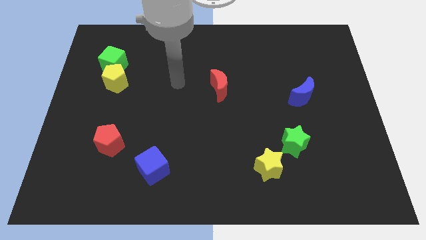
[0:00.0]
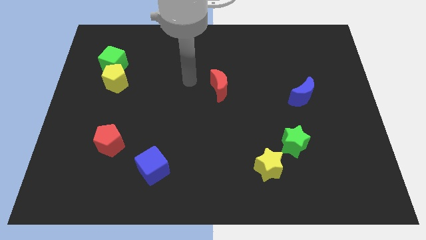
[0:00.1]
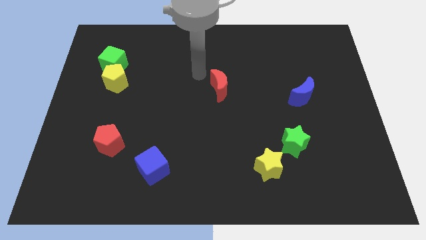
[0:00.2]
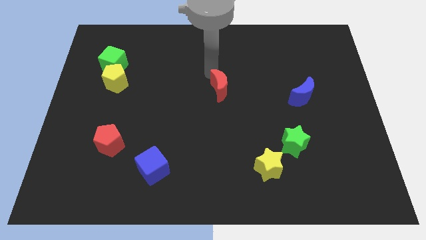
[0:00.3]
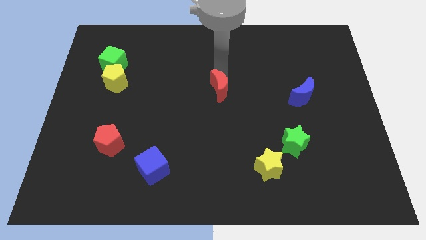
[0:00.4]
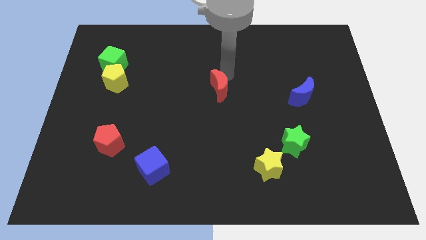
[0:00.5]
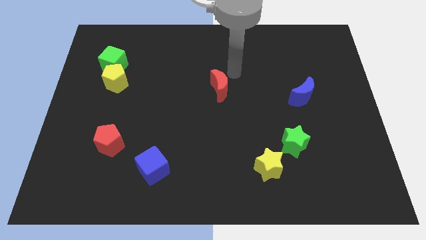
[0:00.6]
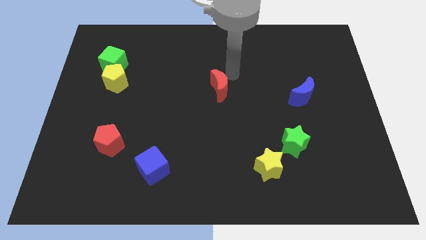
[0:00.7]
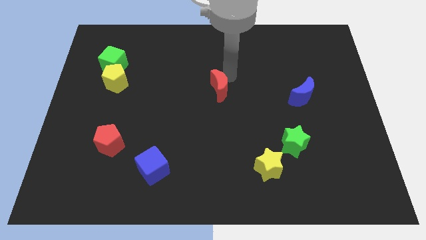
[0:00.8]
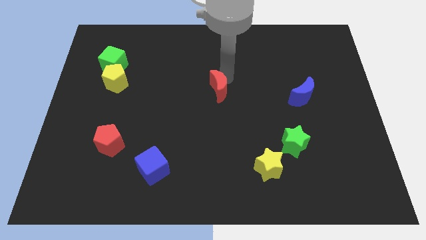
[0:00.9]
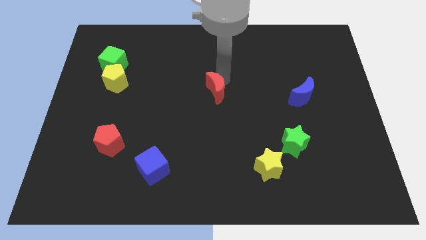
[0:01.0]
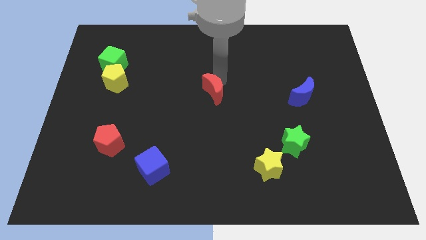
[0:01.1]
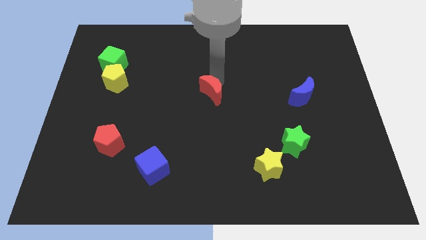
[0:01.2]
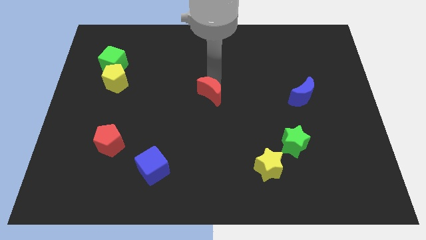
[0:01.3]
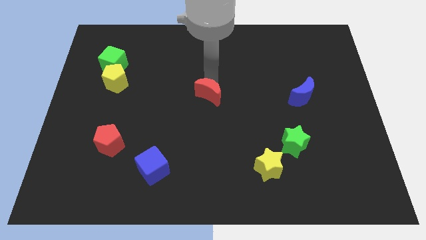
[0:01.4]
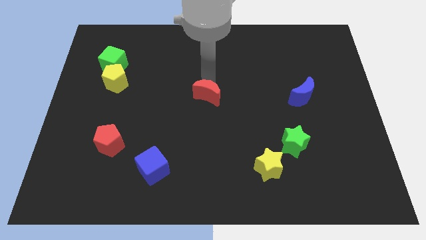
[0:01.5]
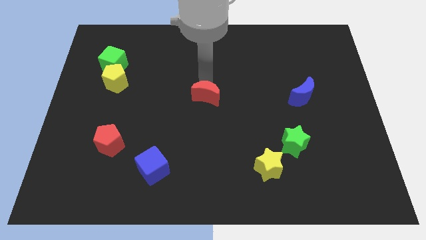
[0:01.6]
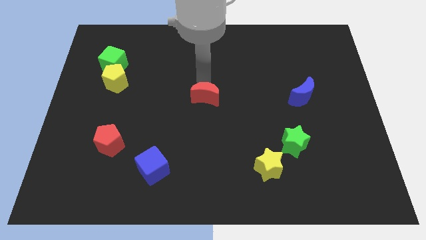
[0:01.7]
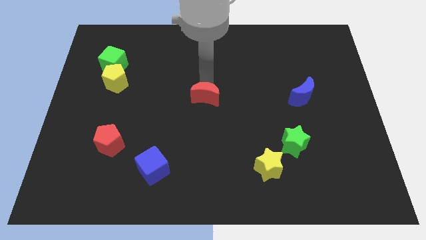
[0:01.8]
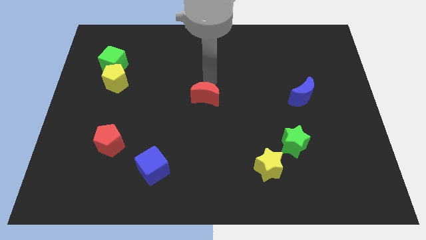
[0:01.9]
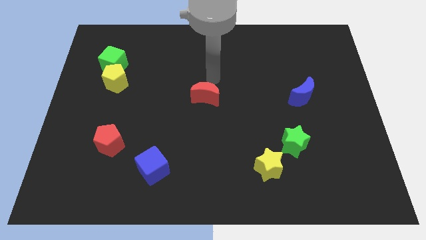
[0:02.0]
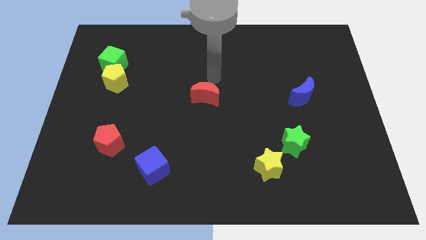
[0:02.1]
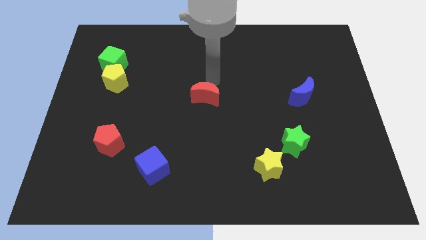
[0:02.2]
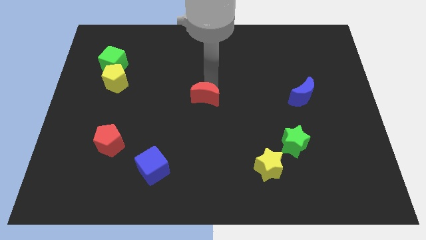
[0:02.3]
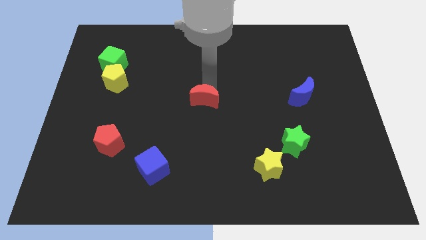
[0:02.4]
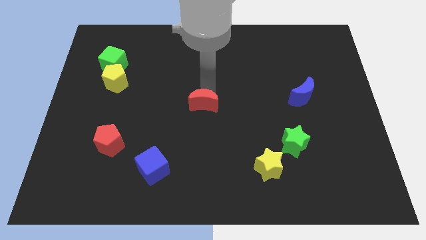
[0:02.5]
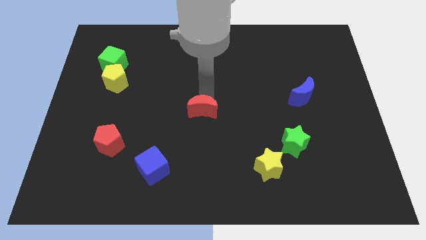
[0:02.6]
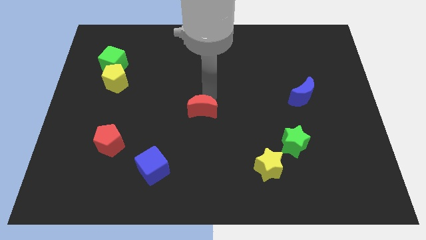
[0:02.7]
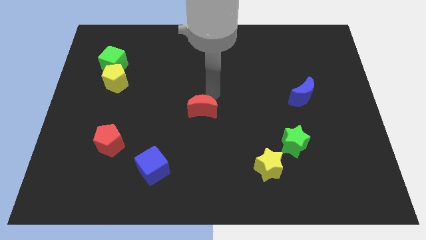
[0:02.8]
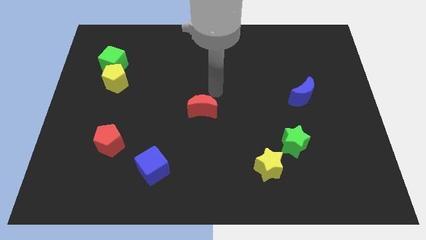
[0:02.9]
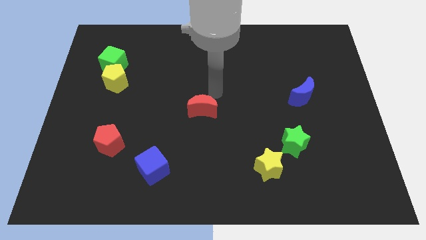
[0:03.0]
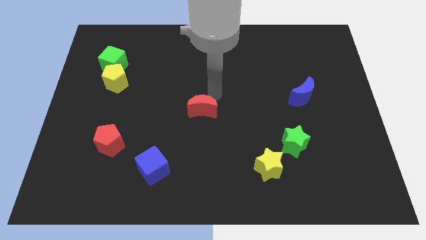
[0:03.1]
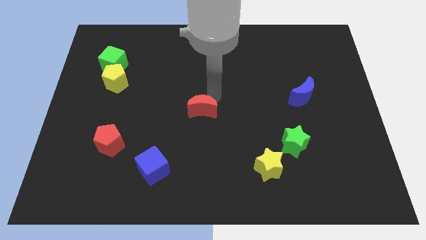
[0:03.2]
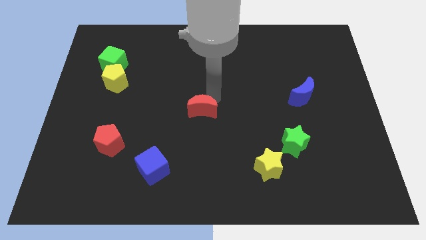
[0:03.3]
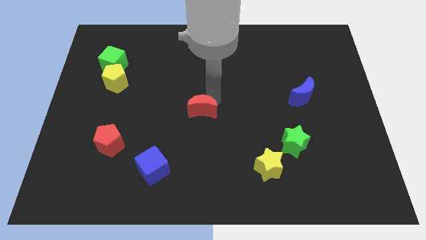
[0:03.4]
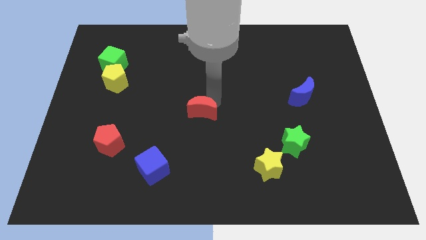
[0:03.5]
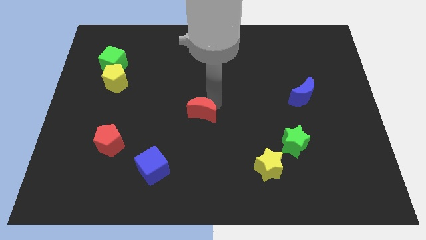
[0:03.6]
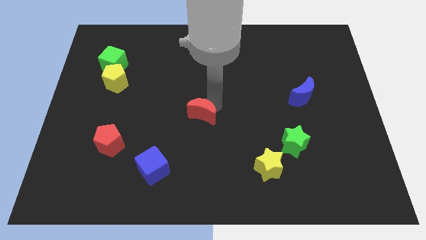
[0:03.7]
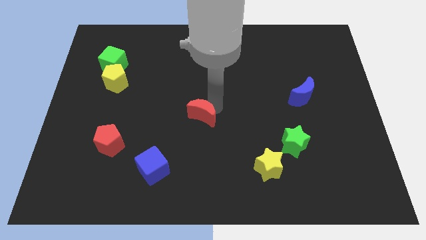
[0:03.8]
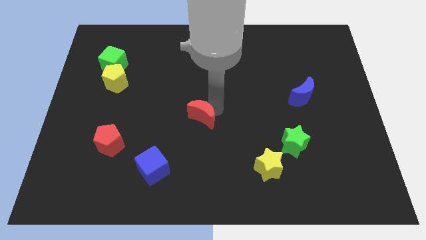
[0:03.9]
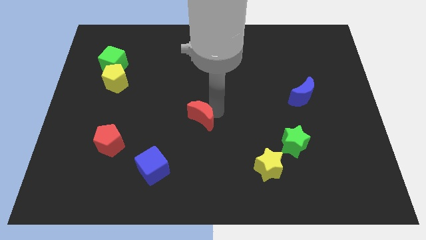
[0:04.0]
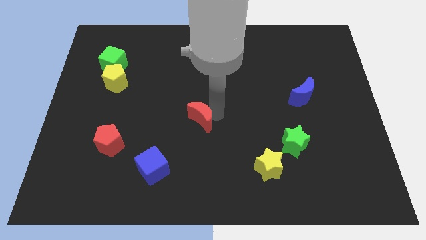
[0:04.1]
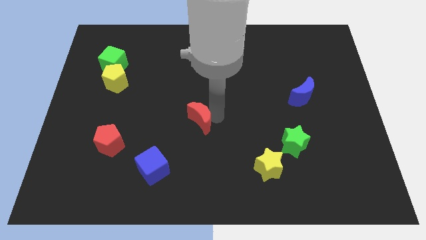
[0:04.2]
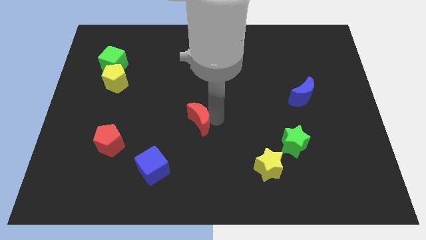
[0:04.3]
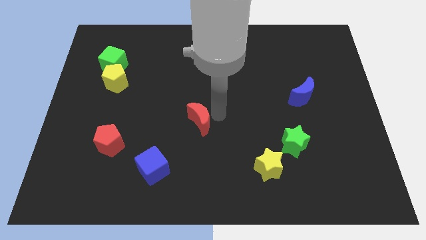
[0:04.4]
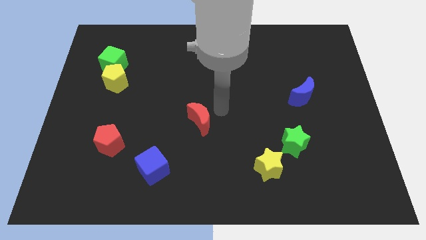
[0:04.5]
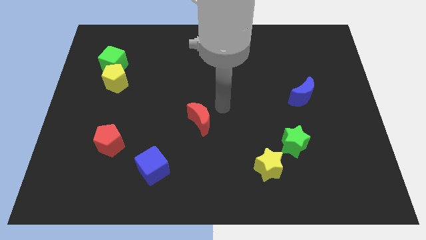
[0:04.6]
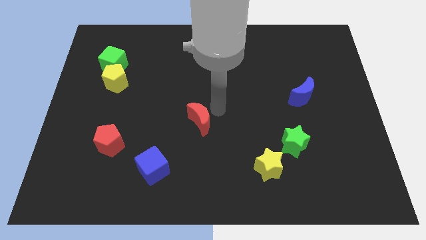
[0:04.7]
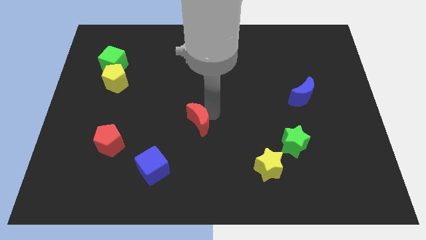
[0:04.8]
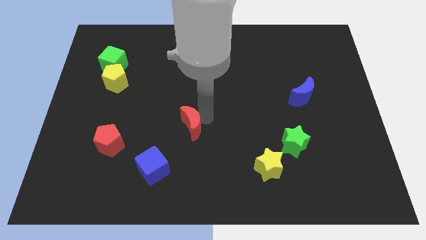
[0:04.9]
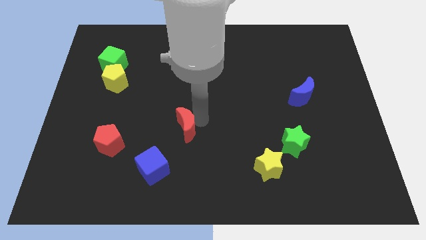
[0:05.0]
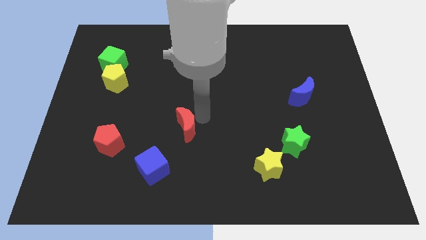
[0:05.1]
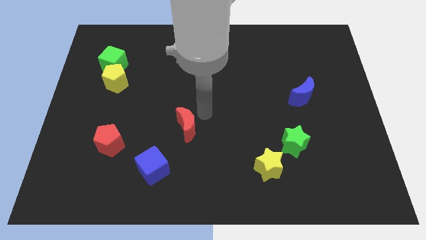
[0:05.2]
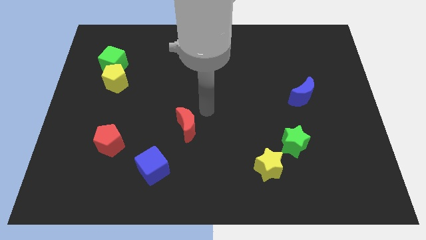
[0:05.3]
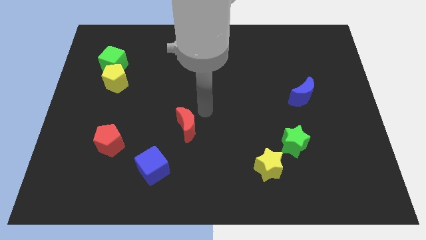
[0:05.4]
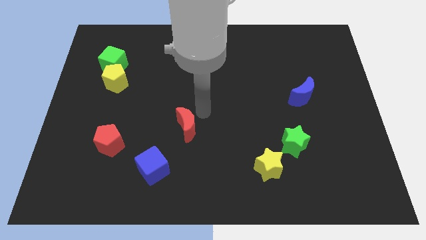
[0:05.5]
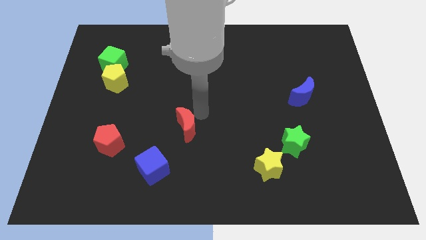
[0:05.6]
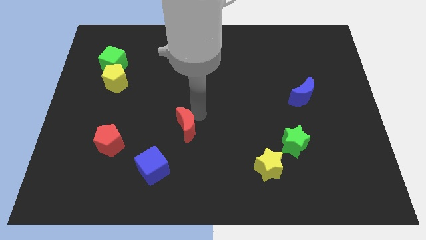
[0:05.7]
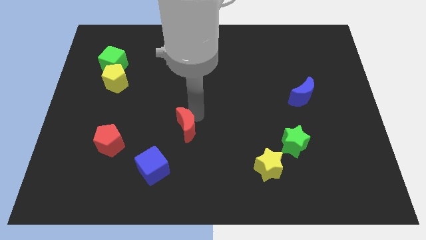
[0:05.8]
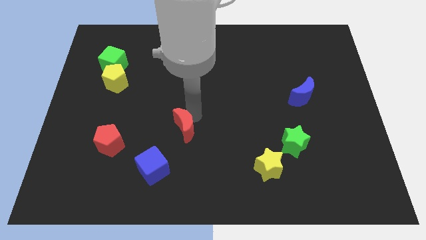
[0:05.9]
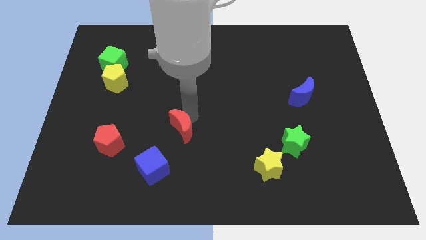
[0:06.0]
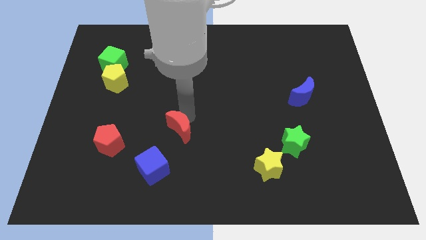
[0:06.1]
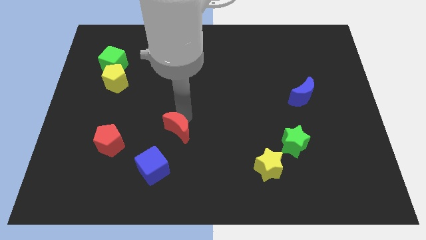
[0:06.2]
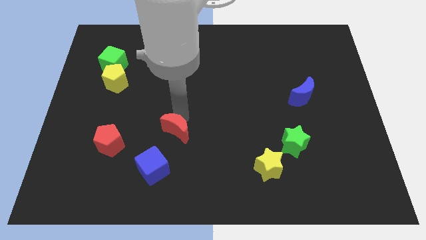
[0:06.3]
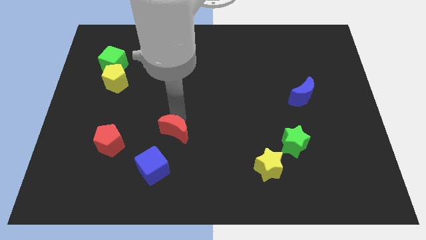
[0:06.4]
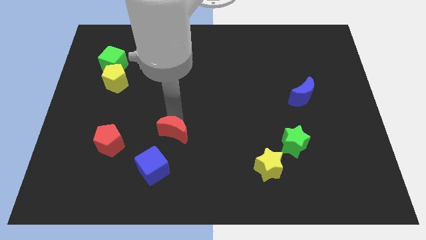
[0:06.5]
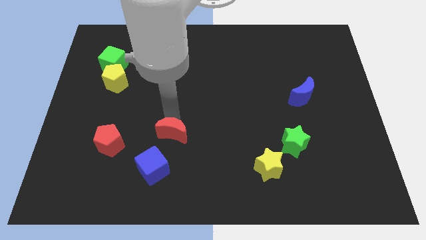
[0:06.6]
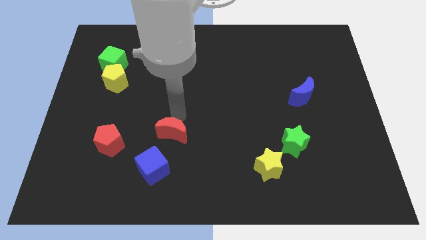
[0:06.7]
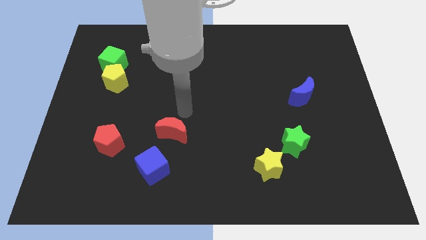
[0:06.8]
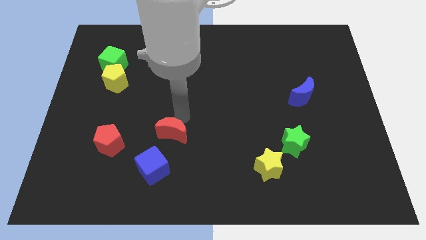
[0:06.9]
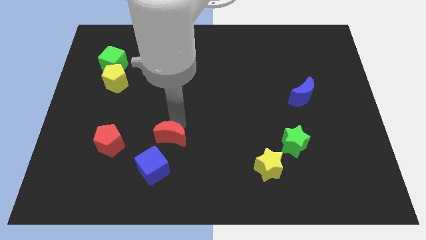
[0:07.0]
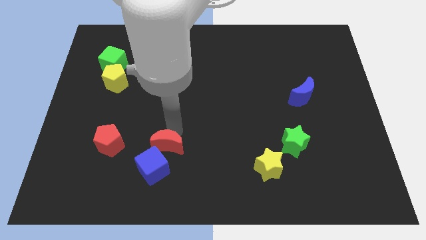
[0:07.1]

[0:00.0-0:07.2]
push the red moon to the blue cube

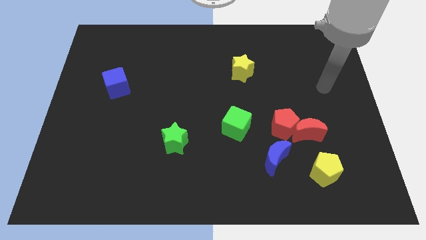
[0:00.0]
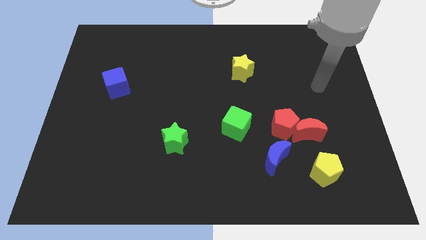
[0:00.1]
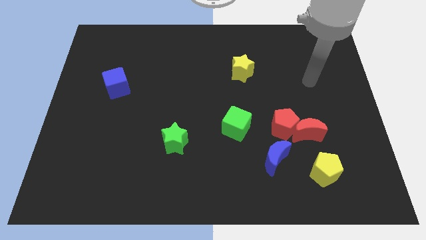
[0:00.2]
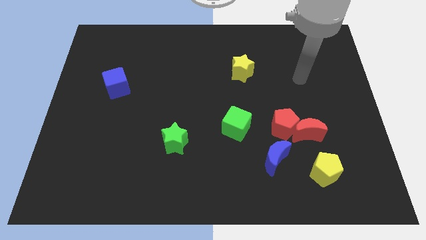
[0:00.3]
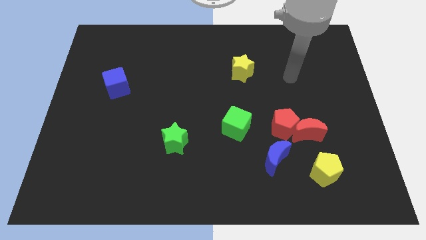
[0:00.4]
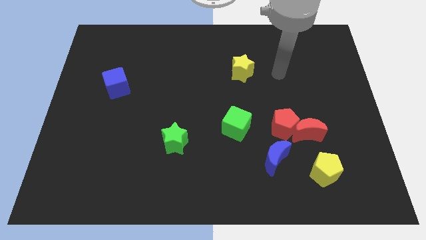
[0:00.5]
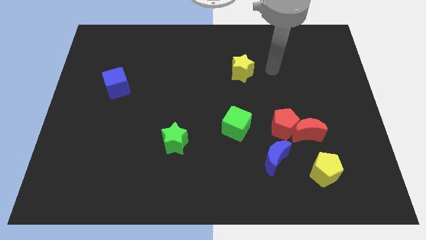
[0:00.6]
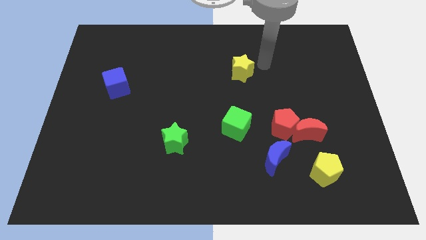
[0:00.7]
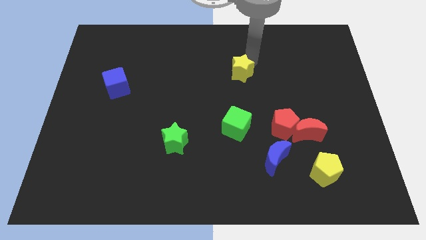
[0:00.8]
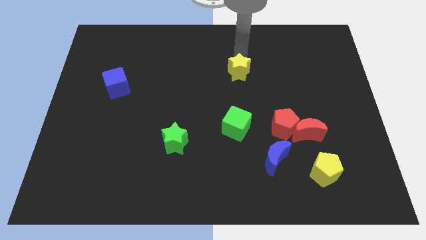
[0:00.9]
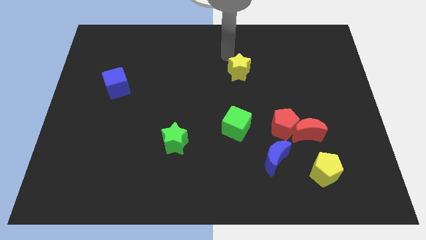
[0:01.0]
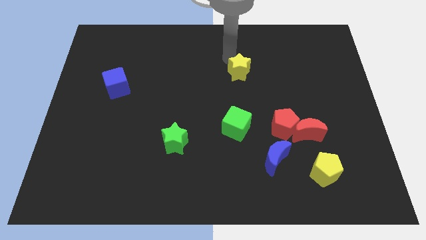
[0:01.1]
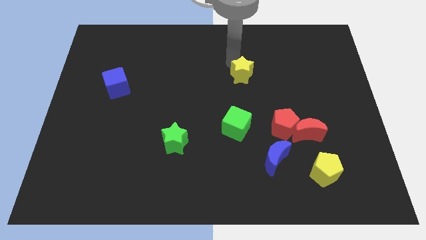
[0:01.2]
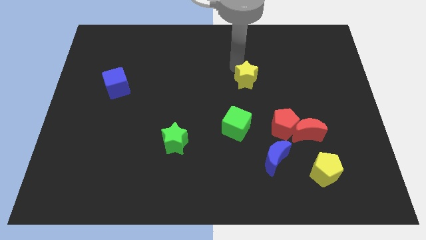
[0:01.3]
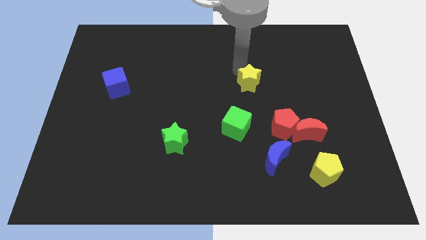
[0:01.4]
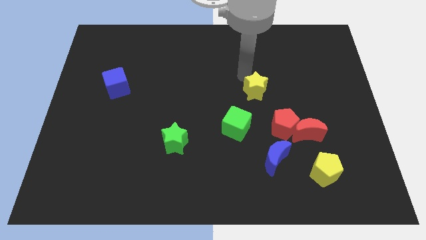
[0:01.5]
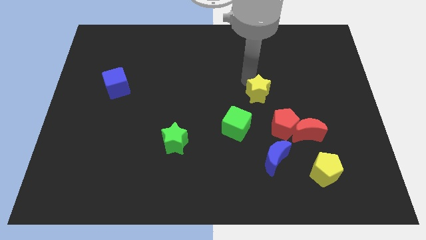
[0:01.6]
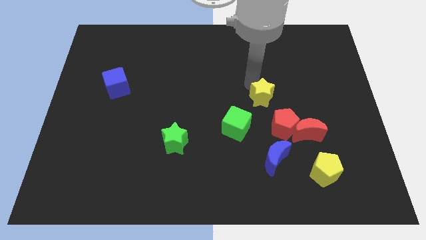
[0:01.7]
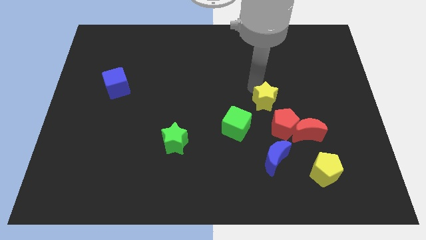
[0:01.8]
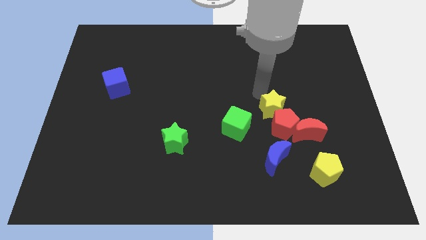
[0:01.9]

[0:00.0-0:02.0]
push the yellow star close to the red pentagon
